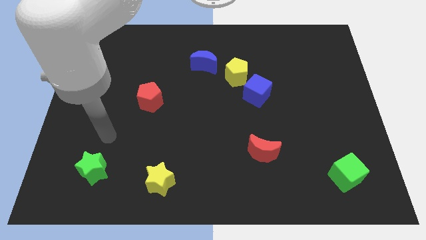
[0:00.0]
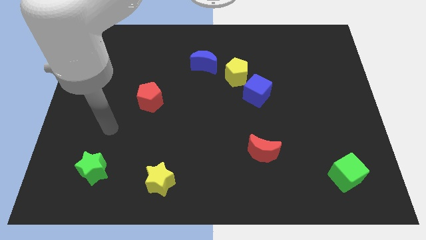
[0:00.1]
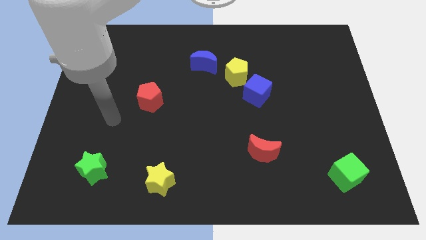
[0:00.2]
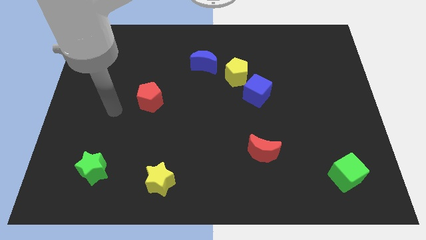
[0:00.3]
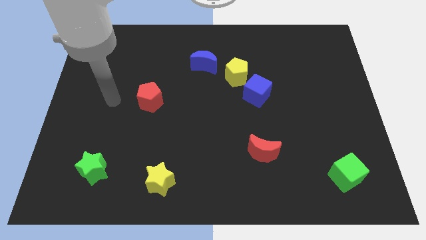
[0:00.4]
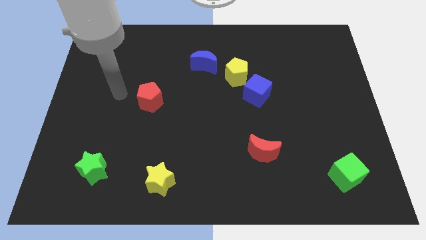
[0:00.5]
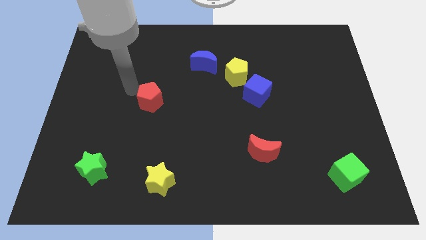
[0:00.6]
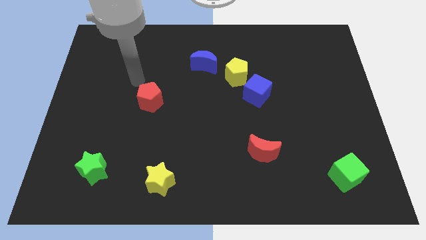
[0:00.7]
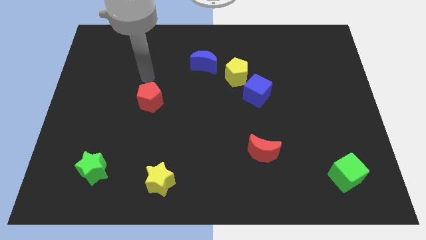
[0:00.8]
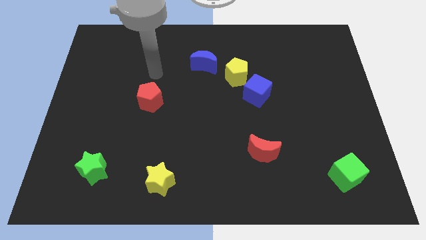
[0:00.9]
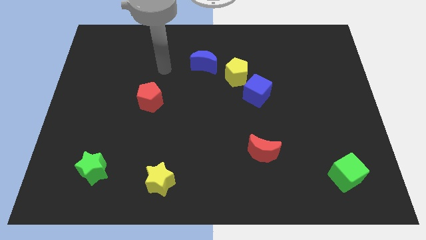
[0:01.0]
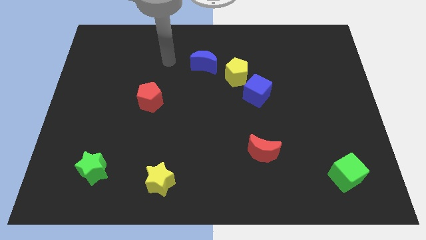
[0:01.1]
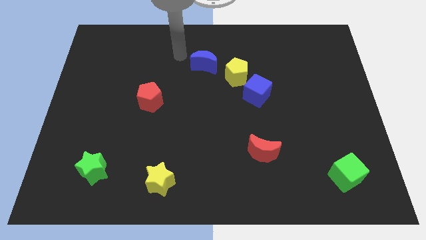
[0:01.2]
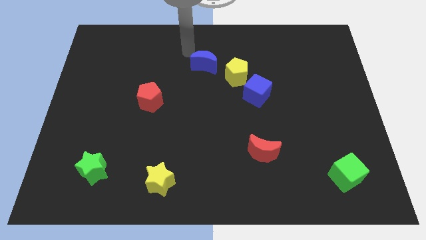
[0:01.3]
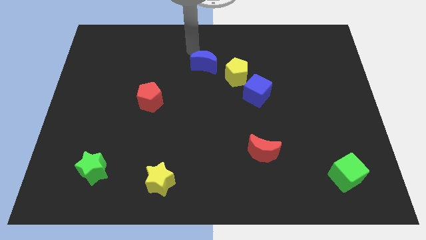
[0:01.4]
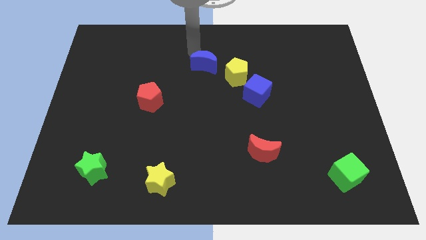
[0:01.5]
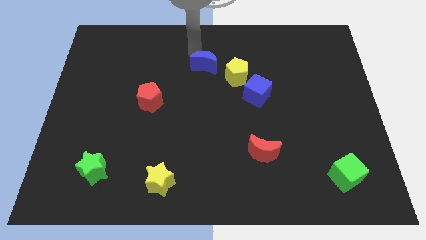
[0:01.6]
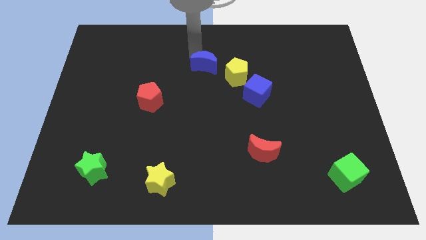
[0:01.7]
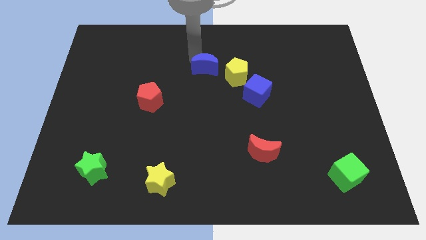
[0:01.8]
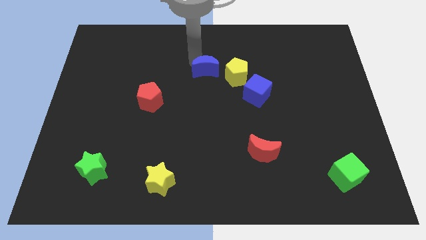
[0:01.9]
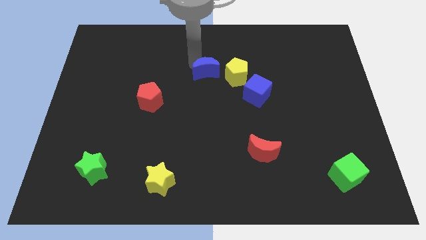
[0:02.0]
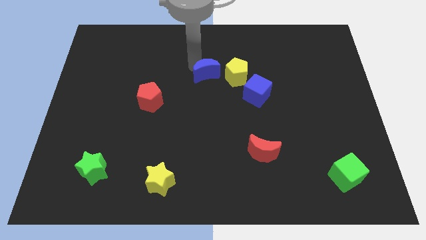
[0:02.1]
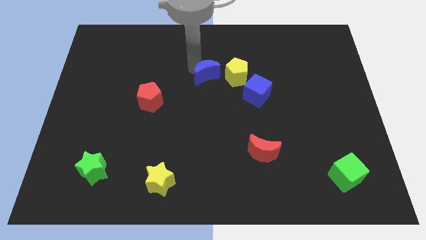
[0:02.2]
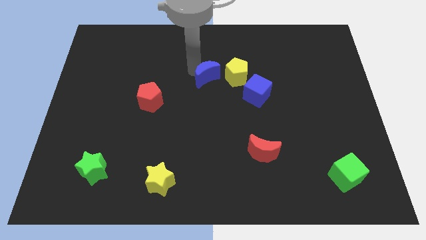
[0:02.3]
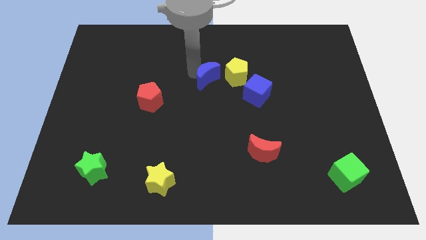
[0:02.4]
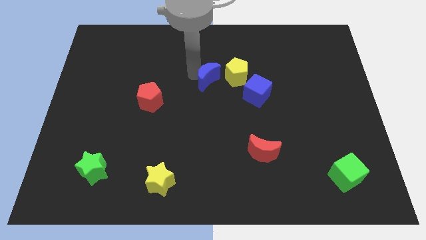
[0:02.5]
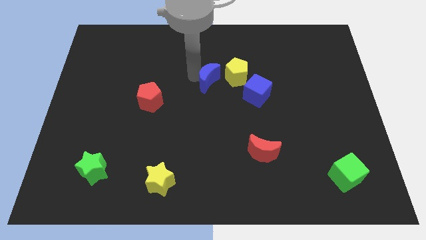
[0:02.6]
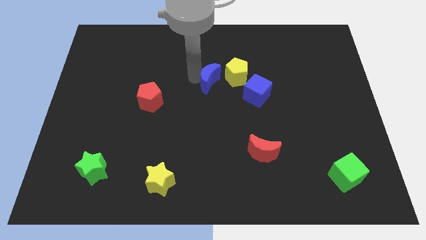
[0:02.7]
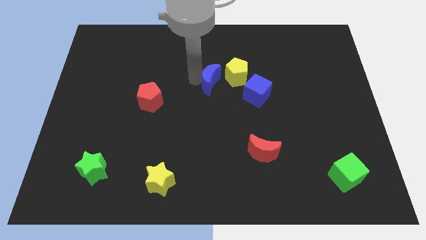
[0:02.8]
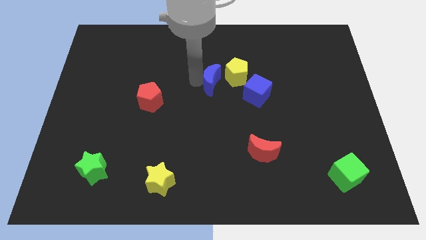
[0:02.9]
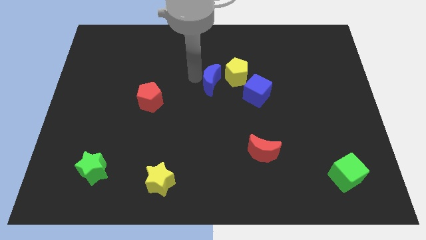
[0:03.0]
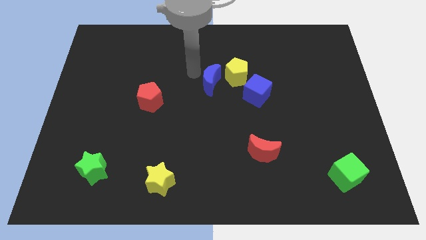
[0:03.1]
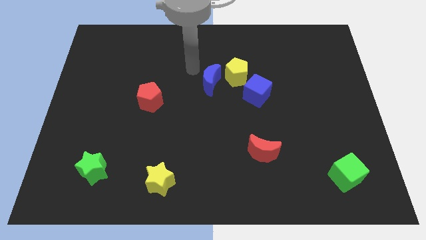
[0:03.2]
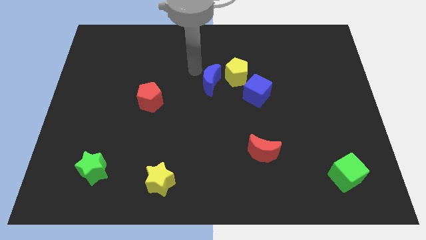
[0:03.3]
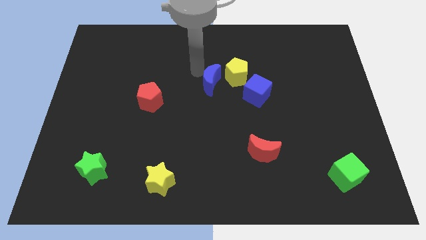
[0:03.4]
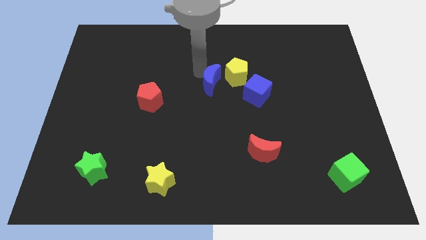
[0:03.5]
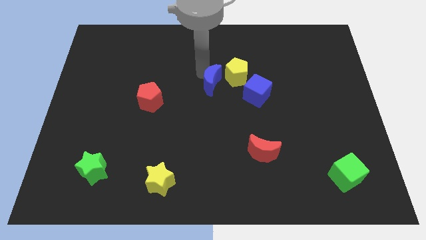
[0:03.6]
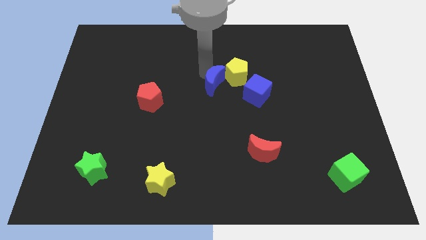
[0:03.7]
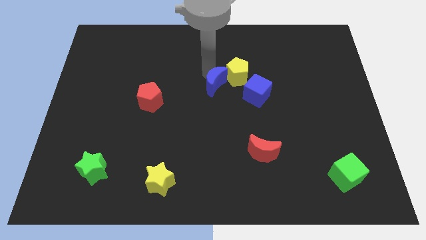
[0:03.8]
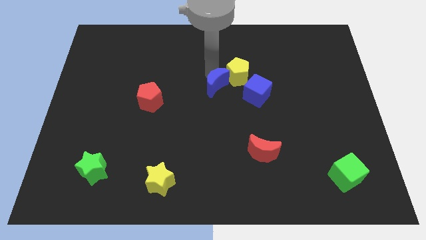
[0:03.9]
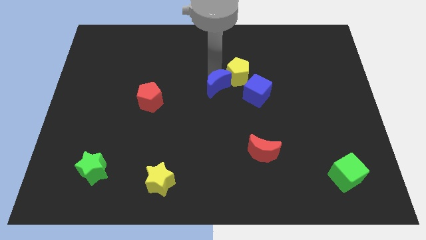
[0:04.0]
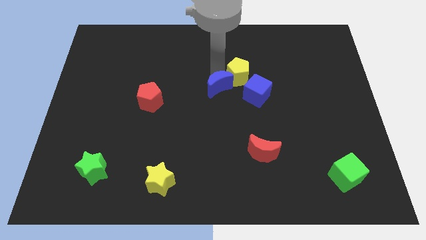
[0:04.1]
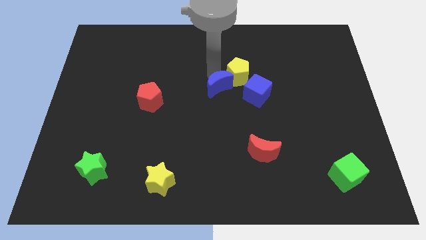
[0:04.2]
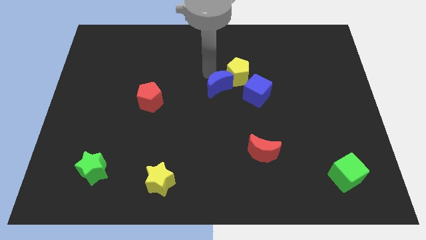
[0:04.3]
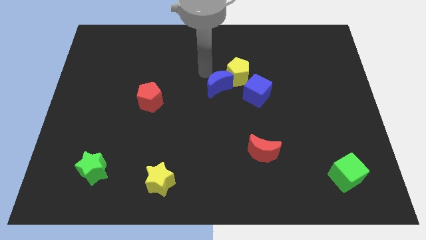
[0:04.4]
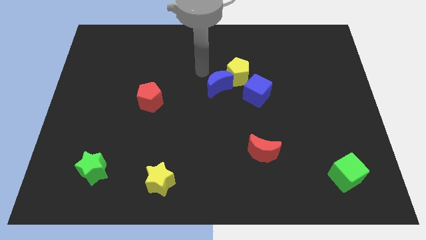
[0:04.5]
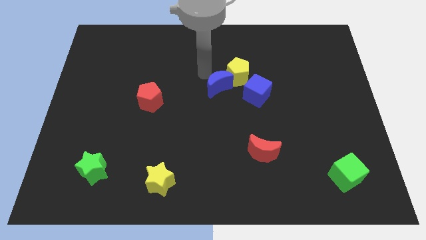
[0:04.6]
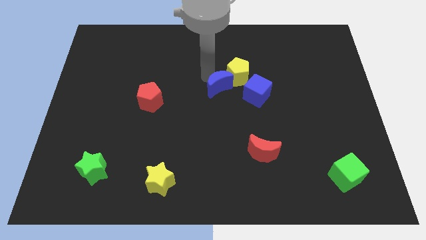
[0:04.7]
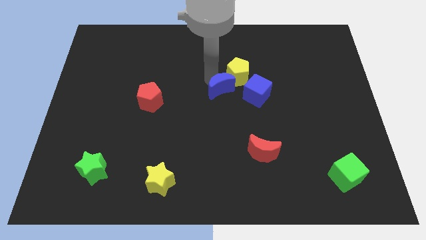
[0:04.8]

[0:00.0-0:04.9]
move the blue moon below the yellow pentagon

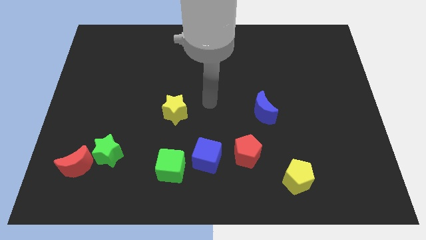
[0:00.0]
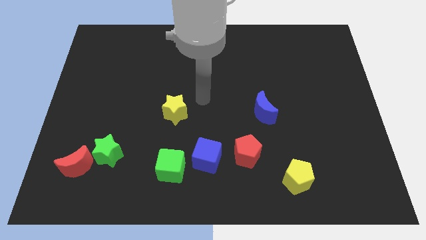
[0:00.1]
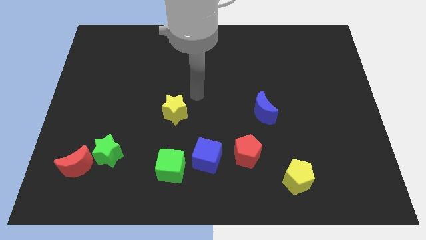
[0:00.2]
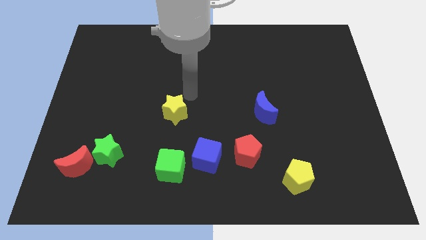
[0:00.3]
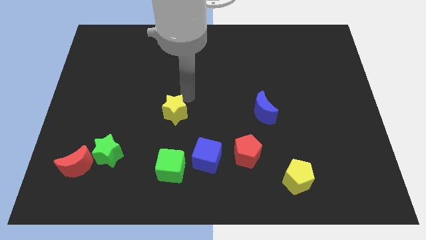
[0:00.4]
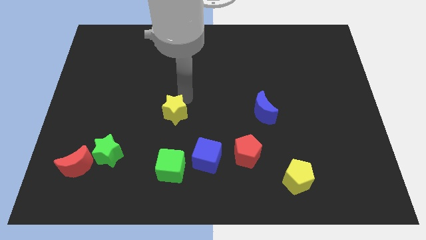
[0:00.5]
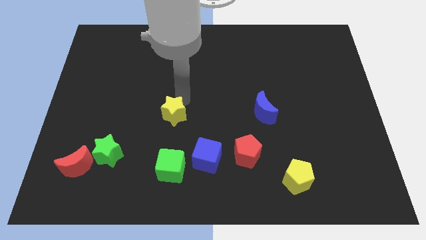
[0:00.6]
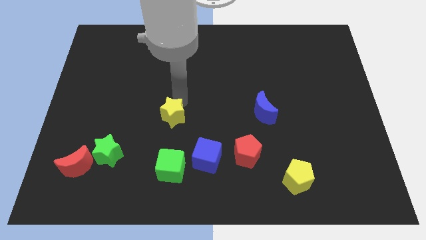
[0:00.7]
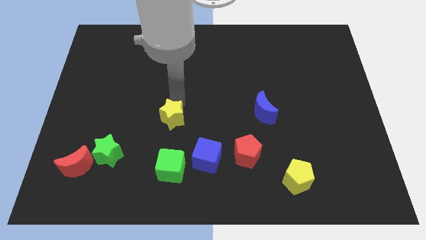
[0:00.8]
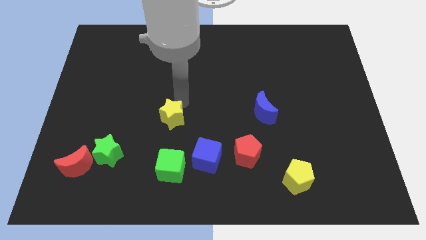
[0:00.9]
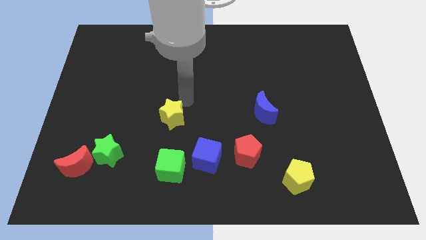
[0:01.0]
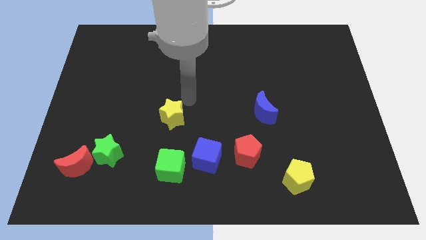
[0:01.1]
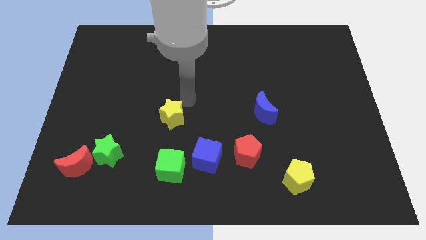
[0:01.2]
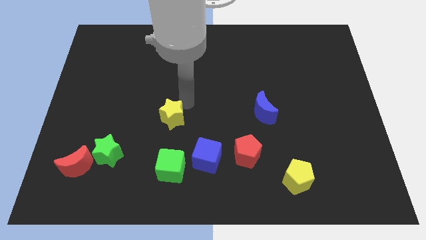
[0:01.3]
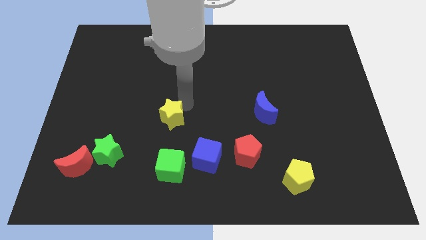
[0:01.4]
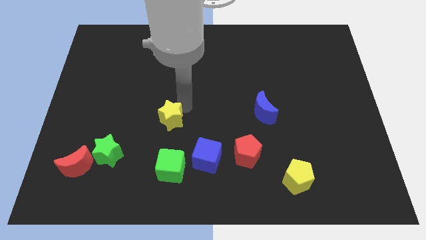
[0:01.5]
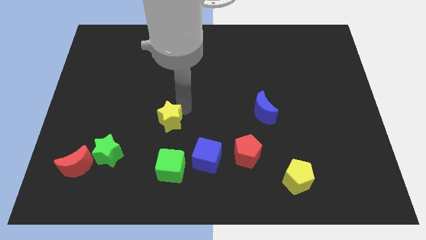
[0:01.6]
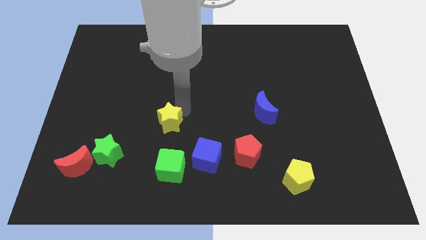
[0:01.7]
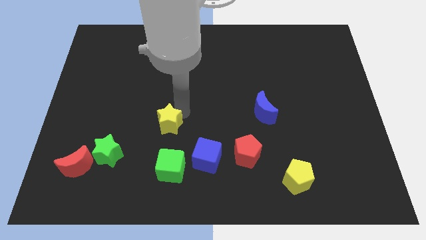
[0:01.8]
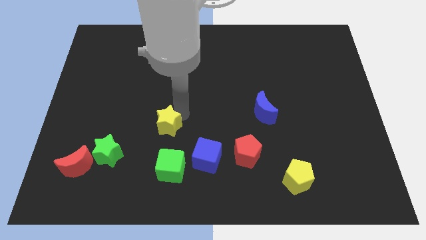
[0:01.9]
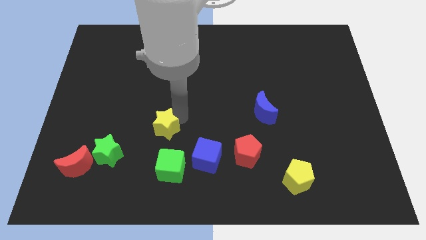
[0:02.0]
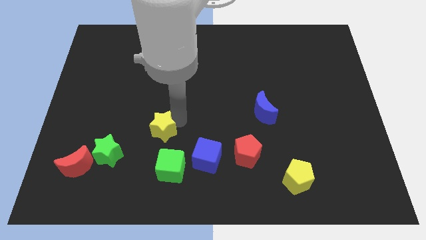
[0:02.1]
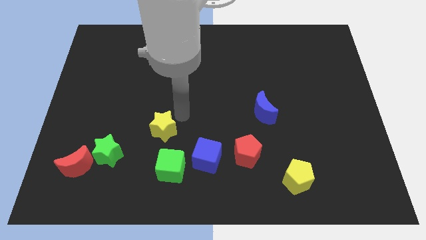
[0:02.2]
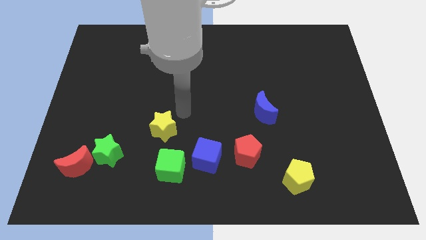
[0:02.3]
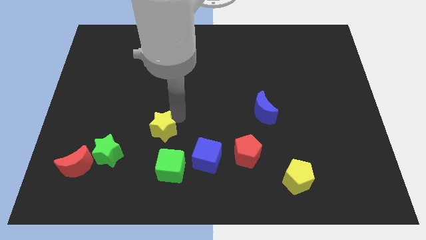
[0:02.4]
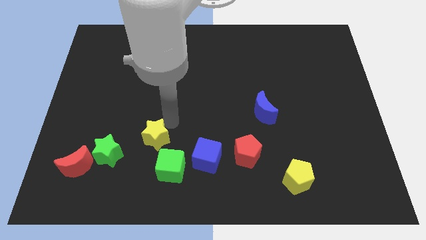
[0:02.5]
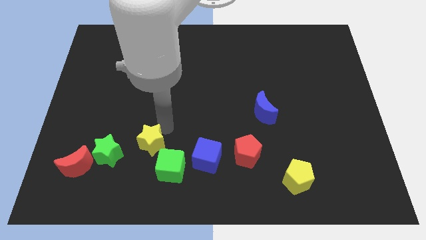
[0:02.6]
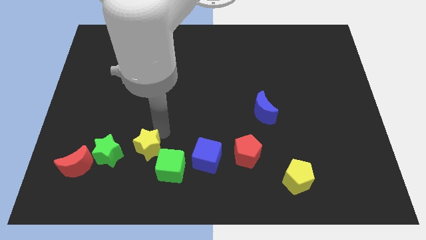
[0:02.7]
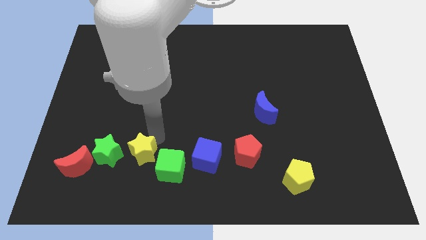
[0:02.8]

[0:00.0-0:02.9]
push the yellow star to the right of the red moon
